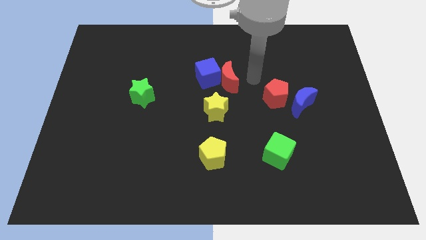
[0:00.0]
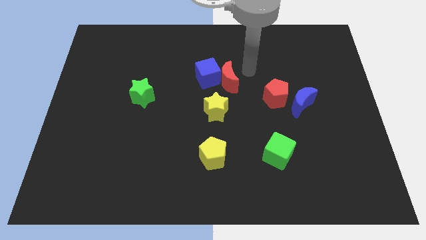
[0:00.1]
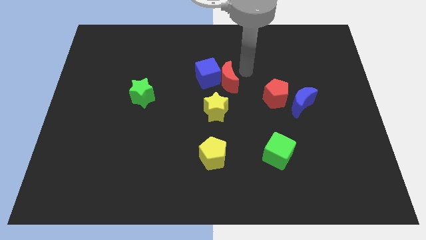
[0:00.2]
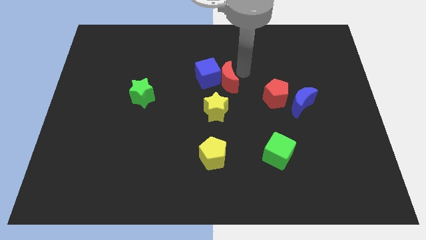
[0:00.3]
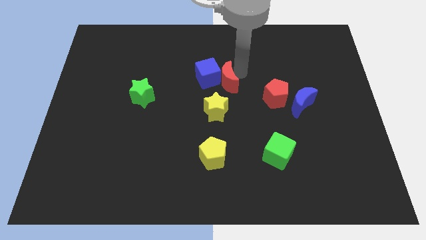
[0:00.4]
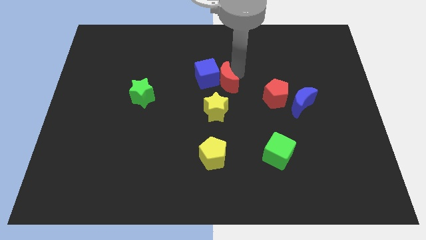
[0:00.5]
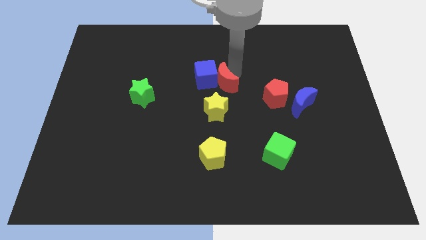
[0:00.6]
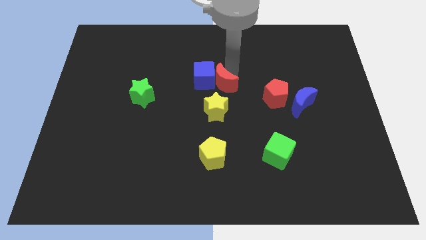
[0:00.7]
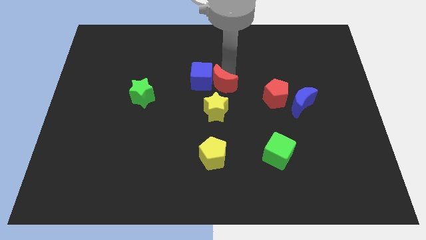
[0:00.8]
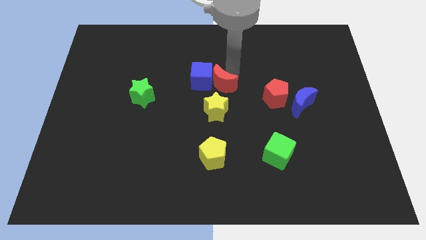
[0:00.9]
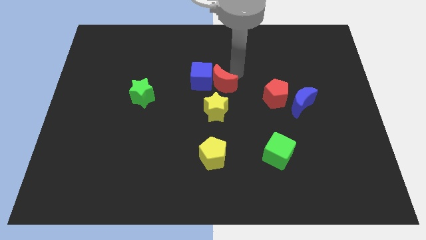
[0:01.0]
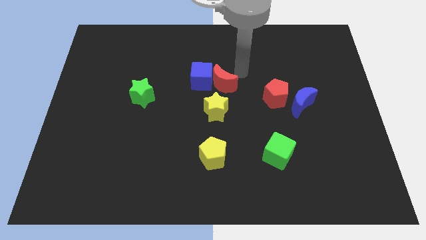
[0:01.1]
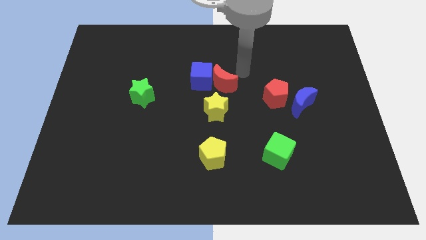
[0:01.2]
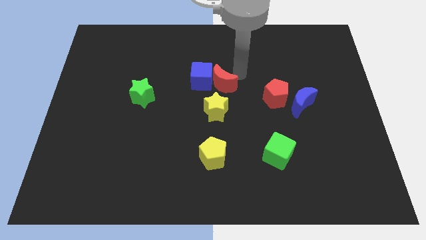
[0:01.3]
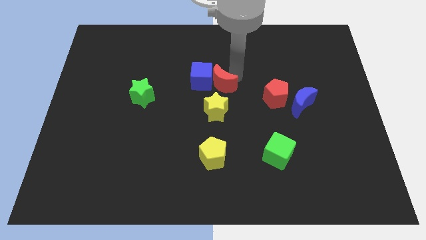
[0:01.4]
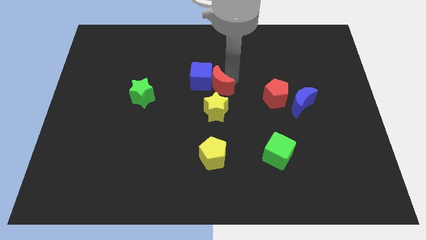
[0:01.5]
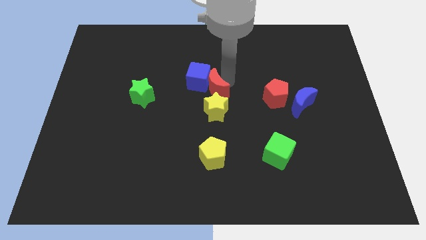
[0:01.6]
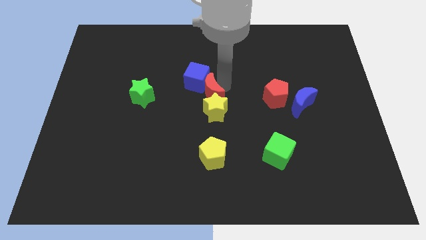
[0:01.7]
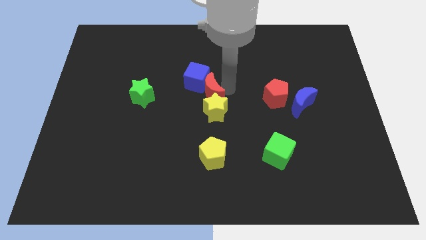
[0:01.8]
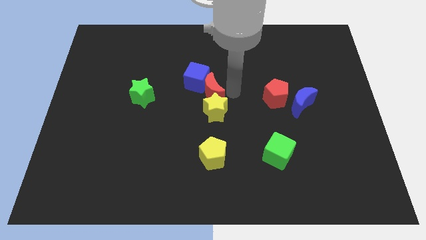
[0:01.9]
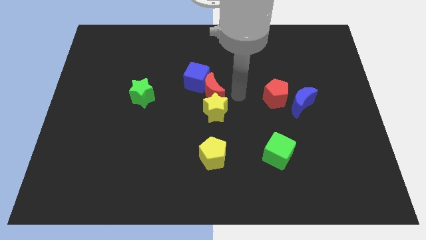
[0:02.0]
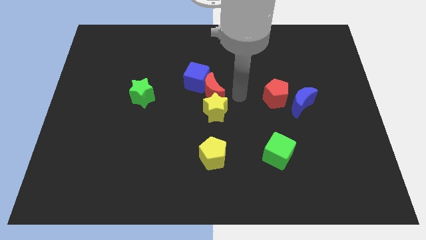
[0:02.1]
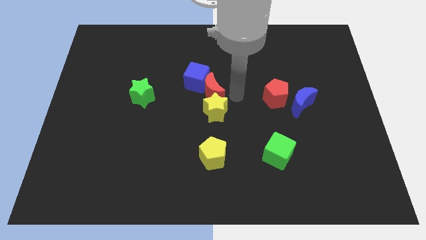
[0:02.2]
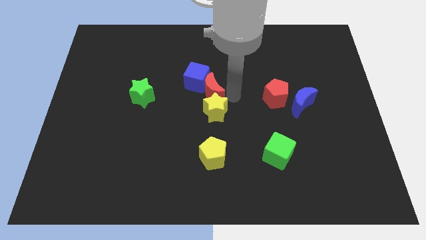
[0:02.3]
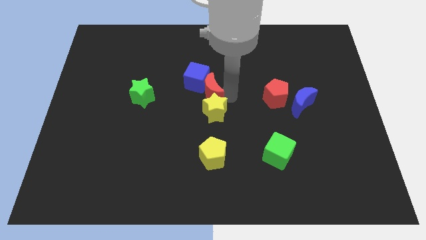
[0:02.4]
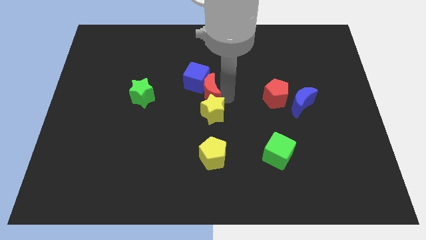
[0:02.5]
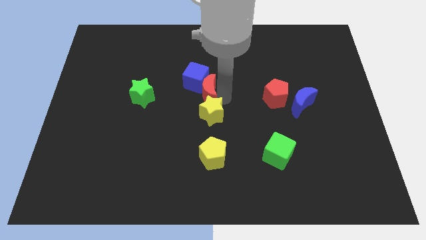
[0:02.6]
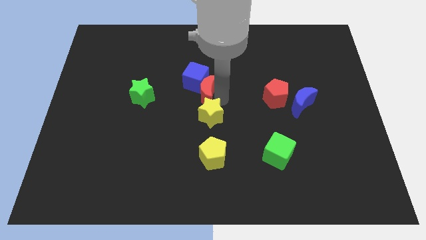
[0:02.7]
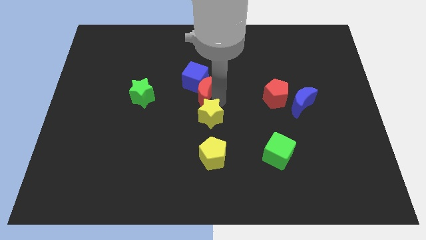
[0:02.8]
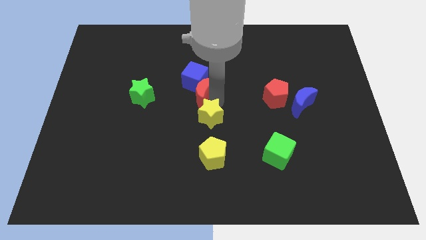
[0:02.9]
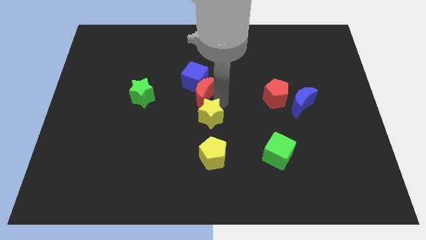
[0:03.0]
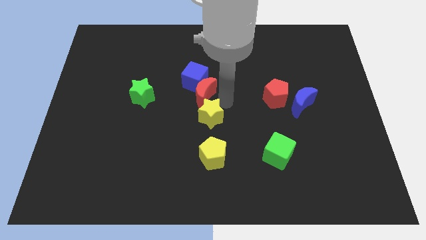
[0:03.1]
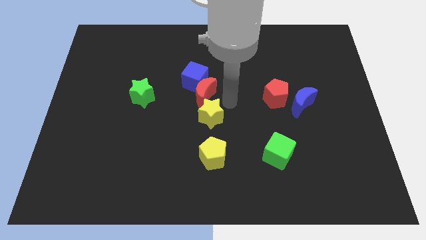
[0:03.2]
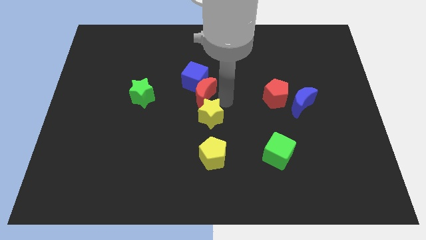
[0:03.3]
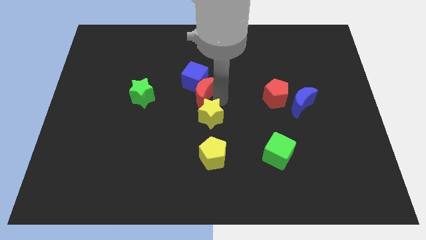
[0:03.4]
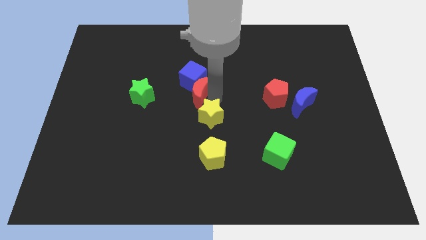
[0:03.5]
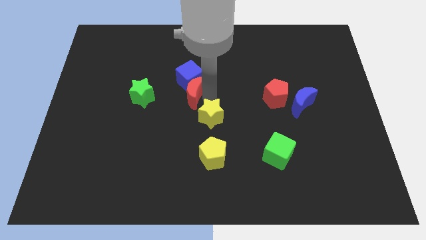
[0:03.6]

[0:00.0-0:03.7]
slide the red moon a little to the left

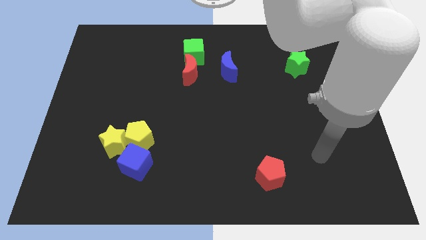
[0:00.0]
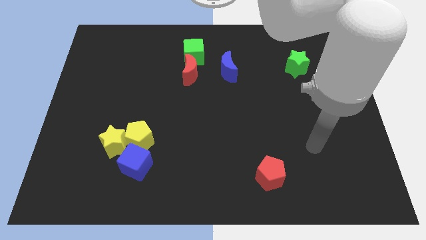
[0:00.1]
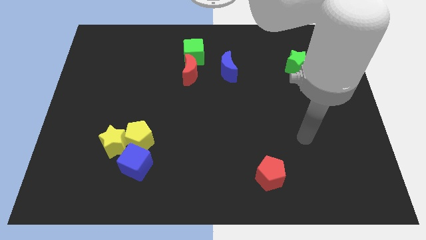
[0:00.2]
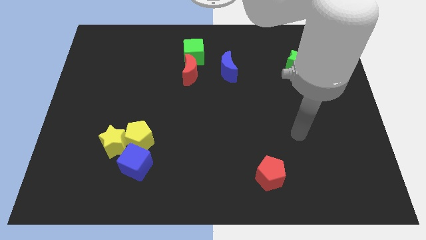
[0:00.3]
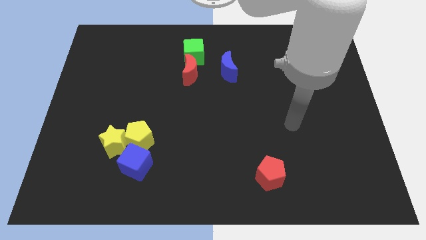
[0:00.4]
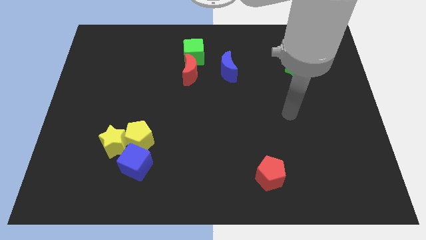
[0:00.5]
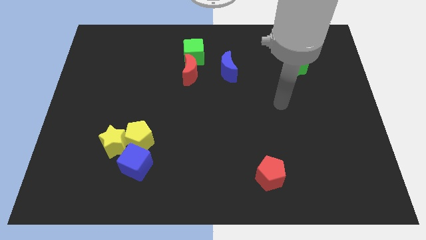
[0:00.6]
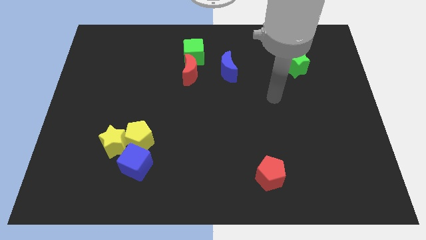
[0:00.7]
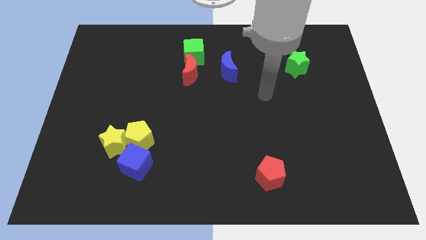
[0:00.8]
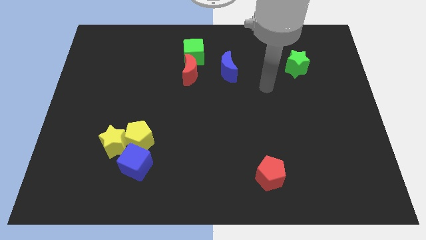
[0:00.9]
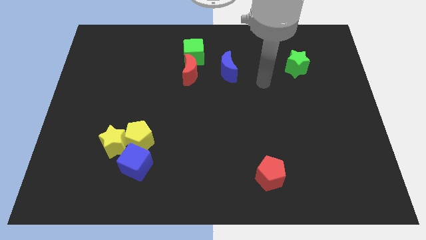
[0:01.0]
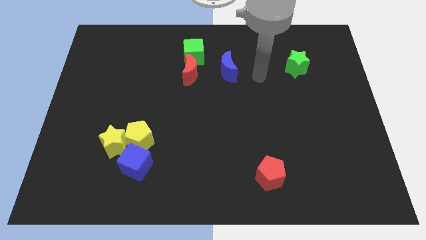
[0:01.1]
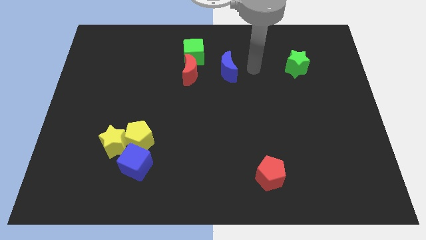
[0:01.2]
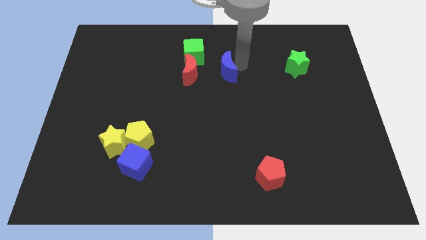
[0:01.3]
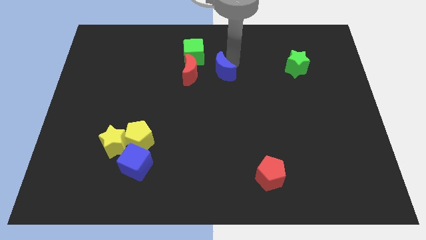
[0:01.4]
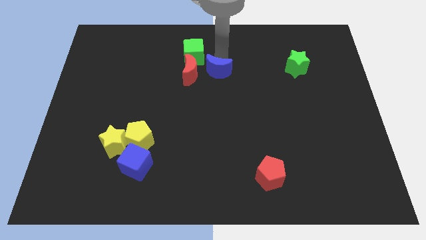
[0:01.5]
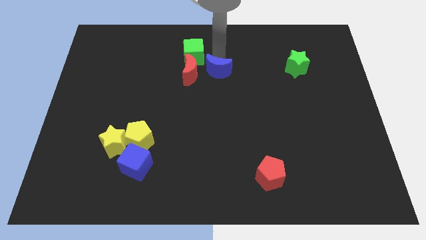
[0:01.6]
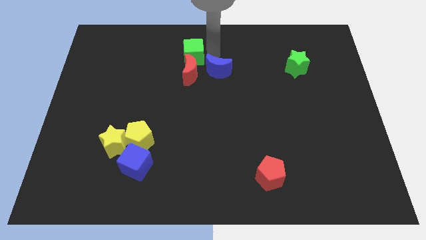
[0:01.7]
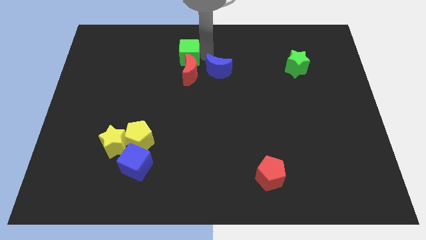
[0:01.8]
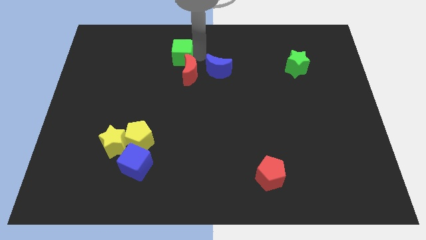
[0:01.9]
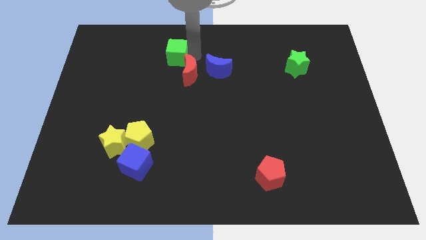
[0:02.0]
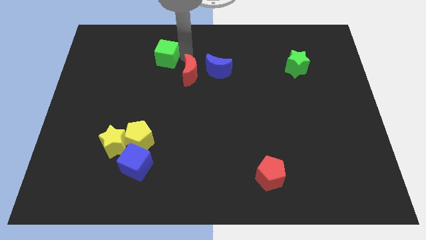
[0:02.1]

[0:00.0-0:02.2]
move the green cube to the left slightly

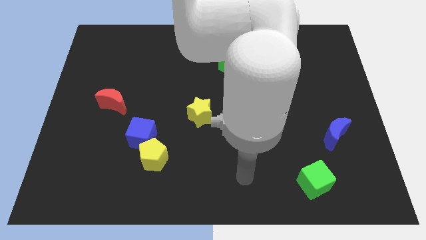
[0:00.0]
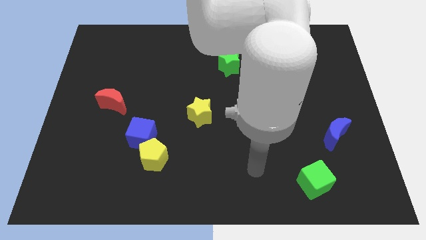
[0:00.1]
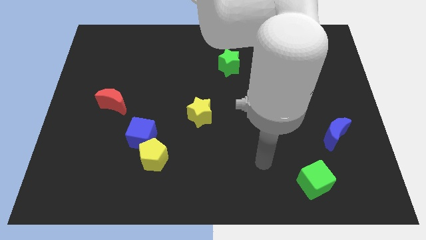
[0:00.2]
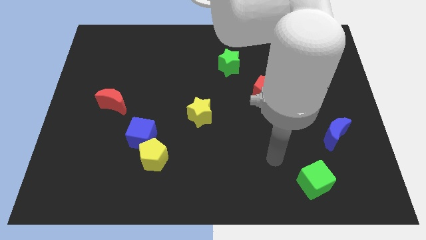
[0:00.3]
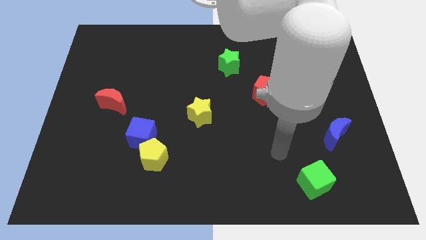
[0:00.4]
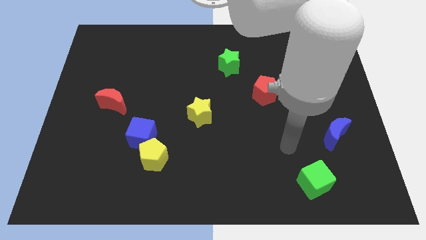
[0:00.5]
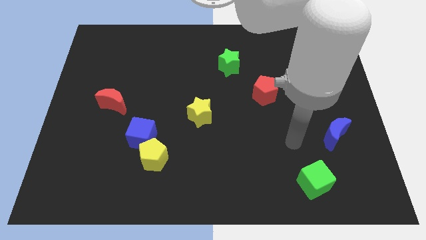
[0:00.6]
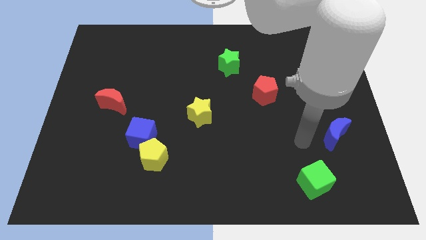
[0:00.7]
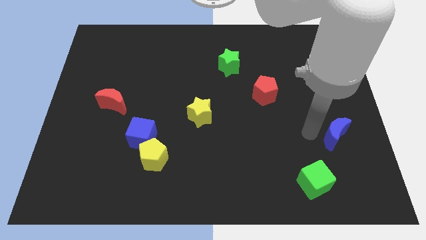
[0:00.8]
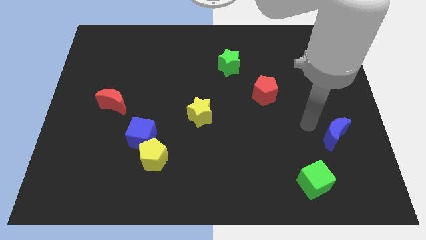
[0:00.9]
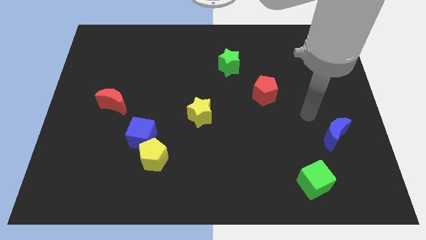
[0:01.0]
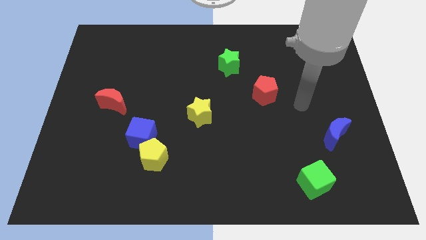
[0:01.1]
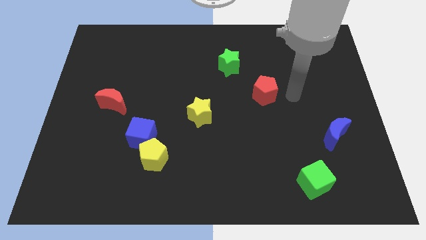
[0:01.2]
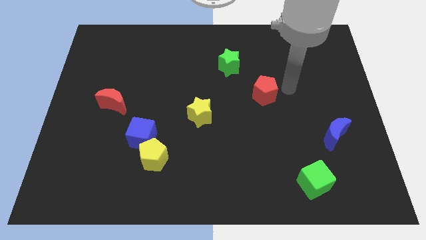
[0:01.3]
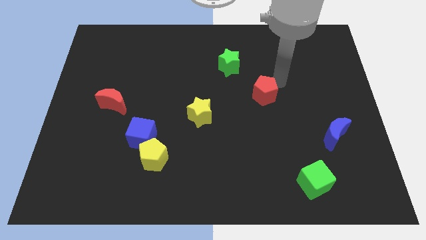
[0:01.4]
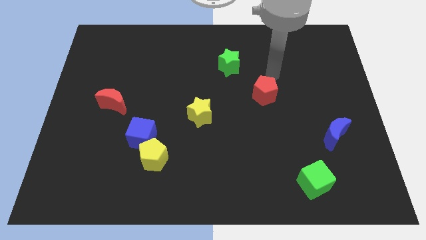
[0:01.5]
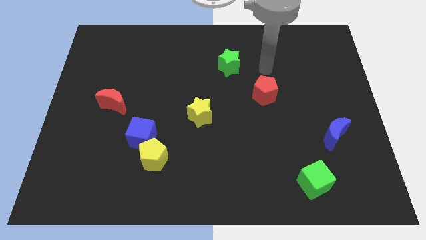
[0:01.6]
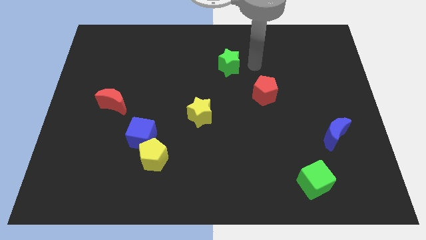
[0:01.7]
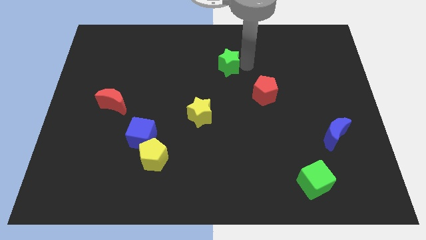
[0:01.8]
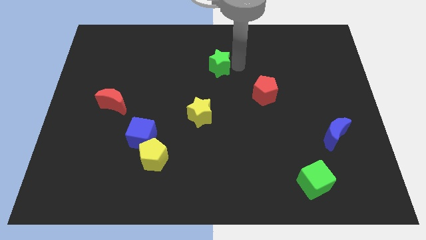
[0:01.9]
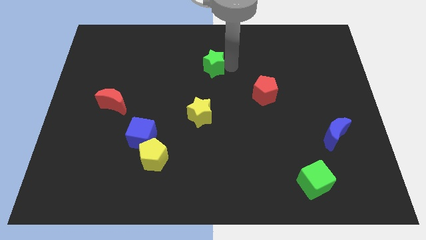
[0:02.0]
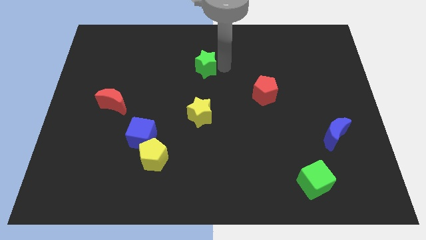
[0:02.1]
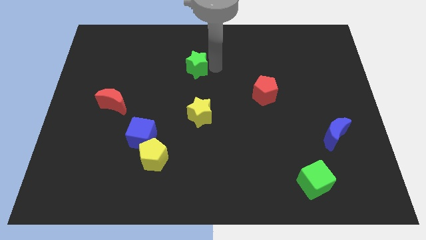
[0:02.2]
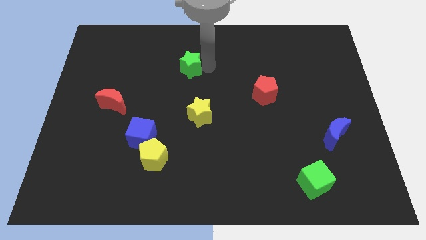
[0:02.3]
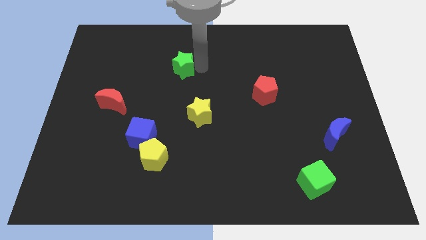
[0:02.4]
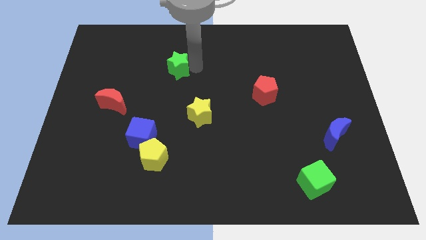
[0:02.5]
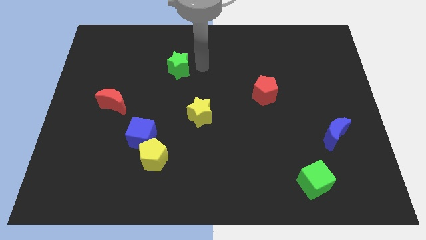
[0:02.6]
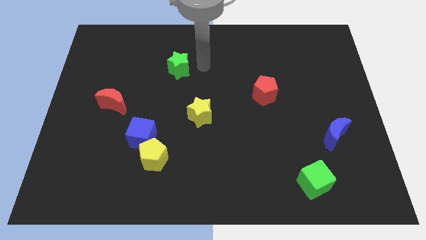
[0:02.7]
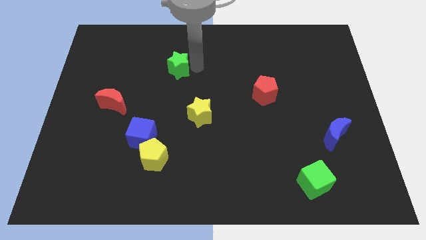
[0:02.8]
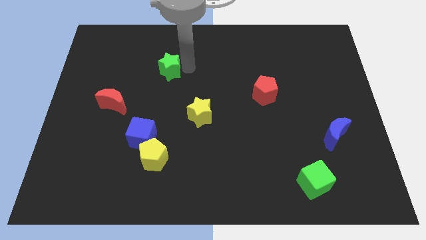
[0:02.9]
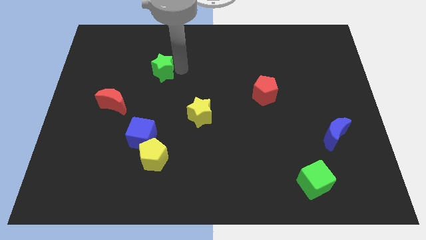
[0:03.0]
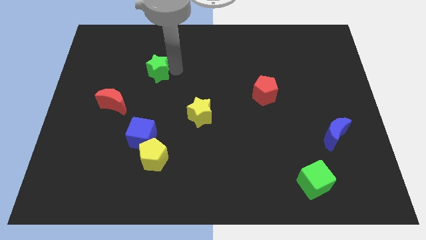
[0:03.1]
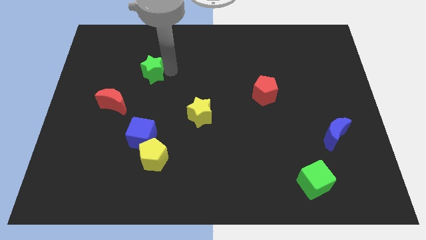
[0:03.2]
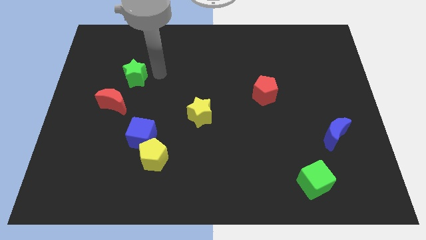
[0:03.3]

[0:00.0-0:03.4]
push the green star left
